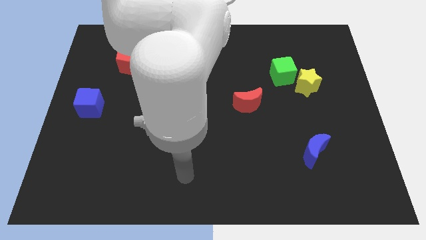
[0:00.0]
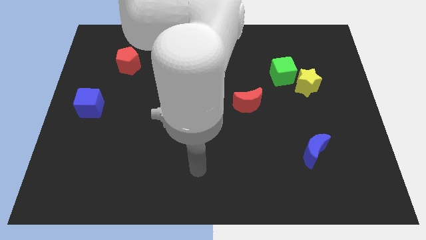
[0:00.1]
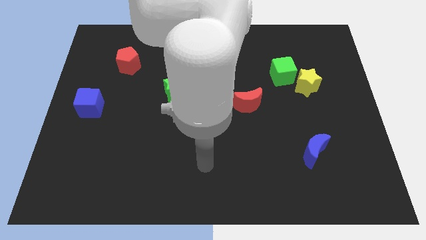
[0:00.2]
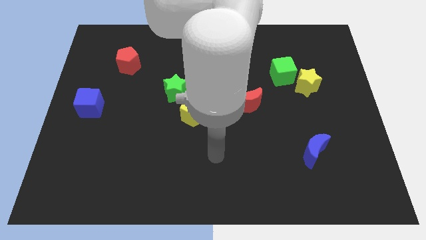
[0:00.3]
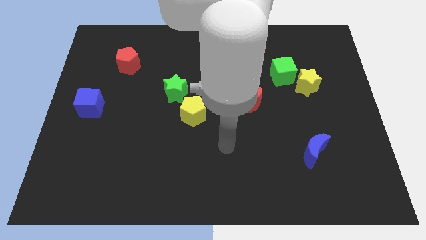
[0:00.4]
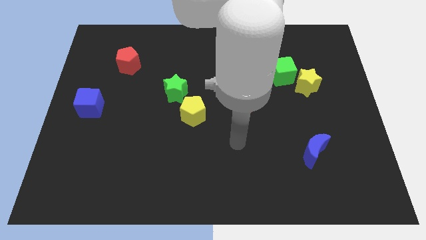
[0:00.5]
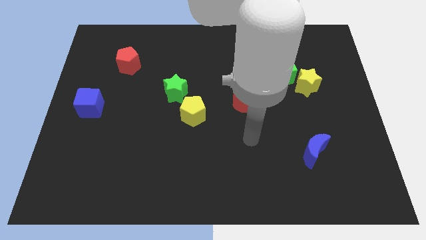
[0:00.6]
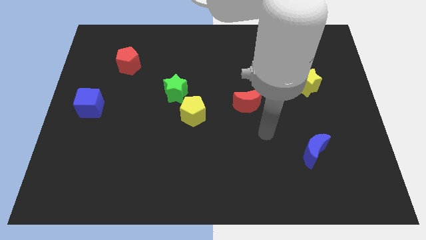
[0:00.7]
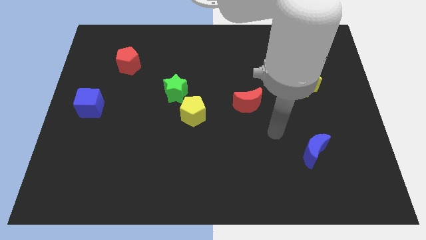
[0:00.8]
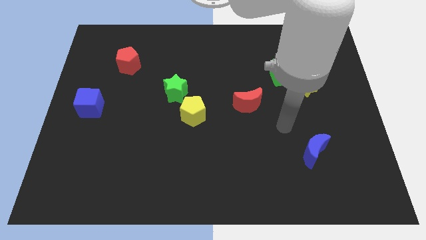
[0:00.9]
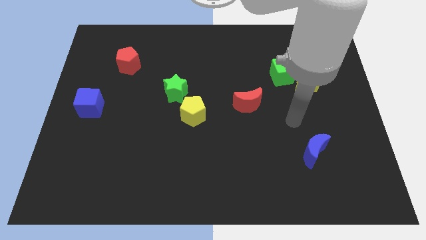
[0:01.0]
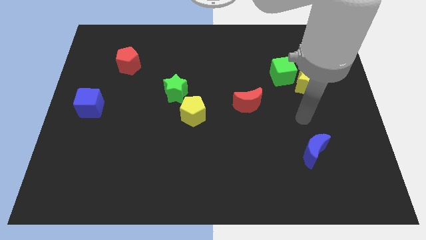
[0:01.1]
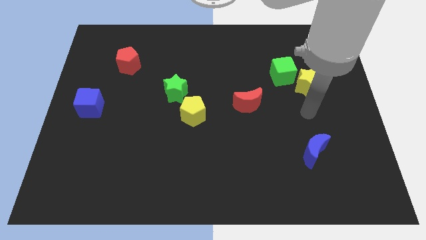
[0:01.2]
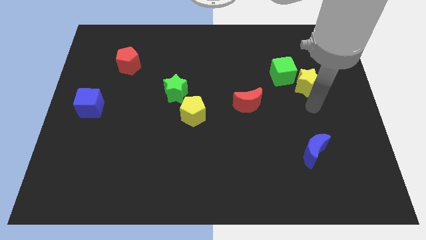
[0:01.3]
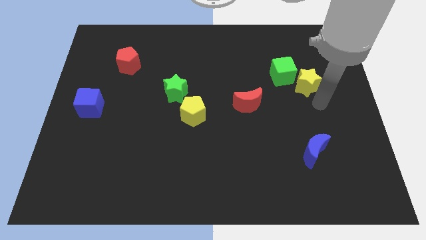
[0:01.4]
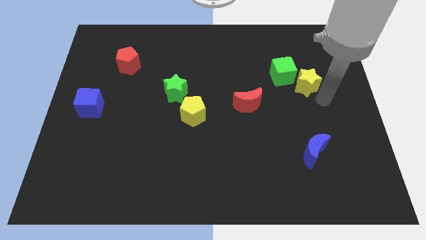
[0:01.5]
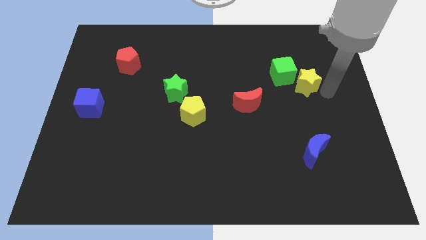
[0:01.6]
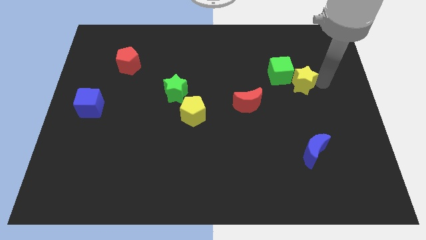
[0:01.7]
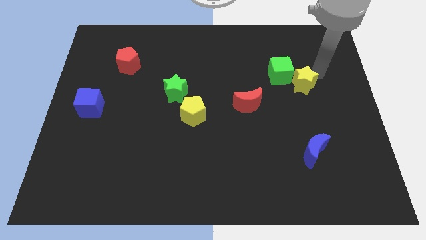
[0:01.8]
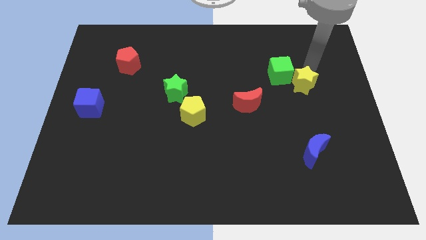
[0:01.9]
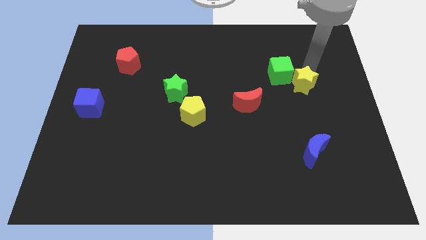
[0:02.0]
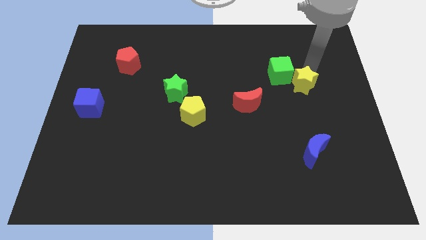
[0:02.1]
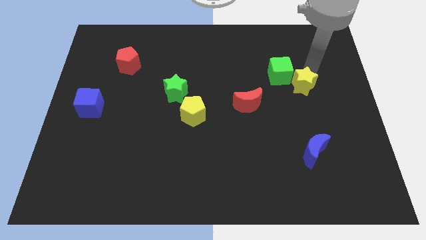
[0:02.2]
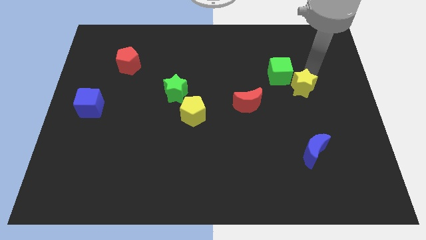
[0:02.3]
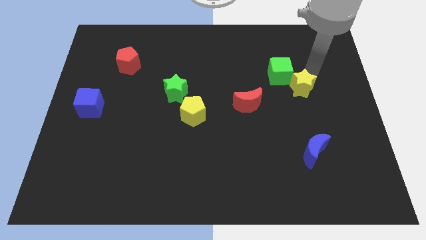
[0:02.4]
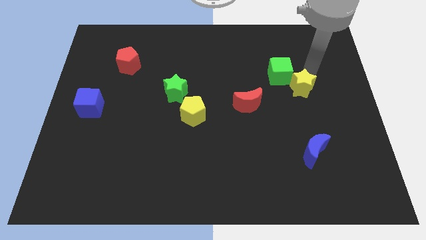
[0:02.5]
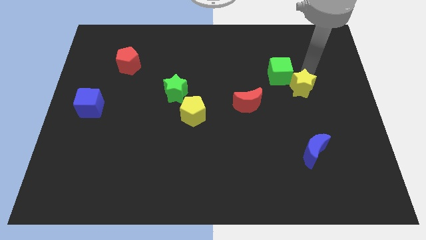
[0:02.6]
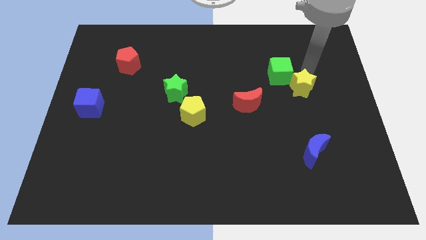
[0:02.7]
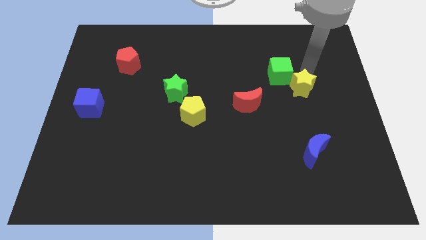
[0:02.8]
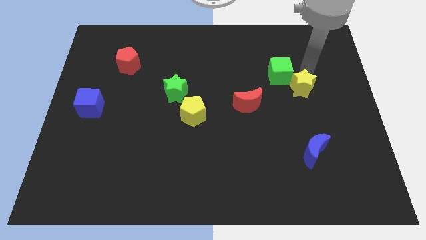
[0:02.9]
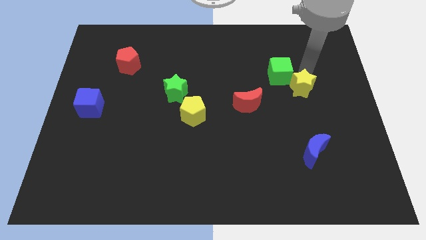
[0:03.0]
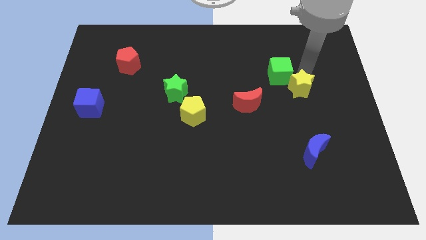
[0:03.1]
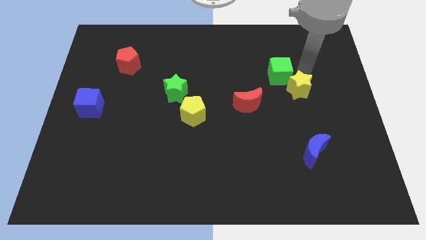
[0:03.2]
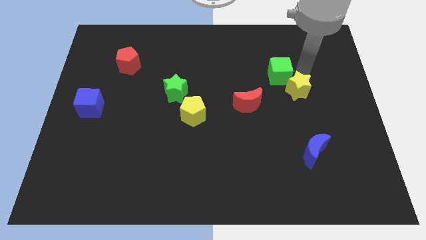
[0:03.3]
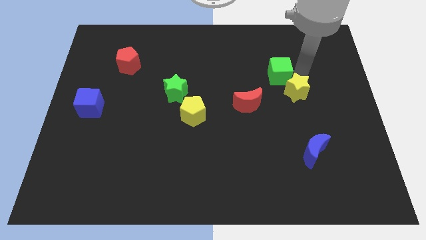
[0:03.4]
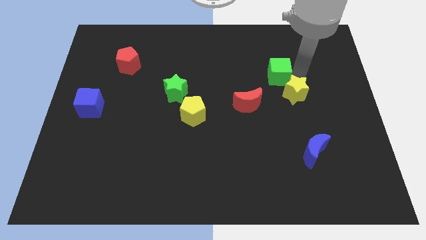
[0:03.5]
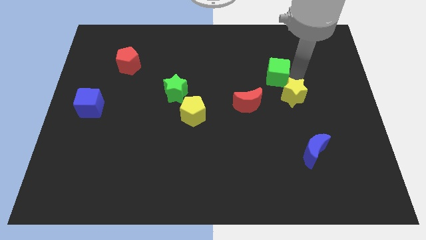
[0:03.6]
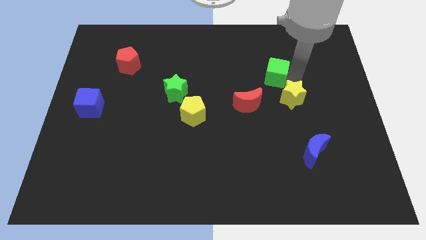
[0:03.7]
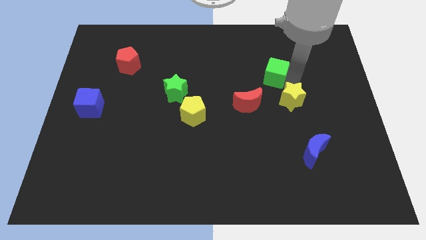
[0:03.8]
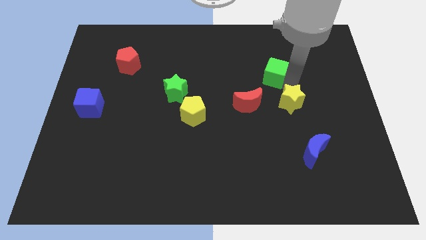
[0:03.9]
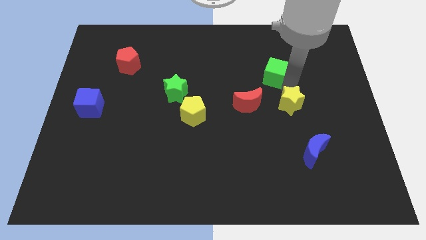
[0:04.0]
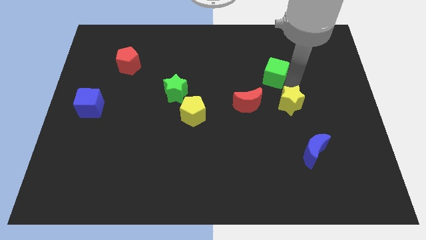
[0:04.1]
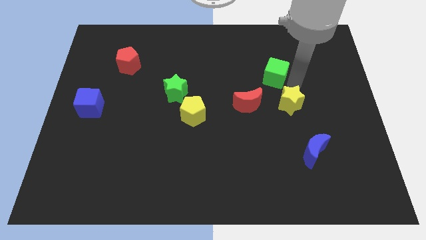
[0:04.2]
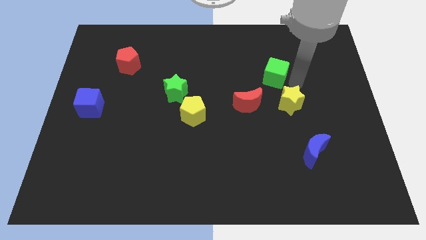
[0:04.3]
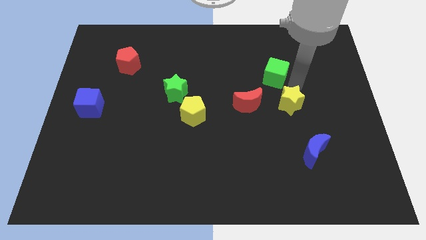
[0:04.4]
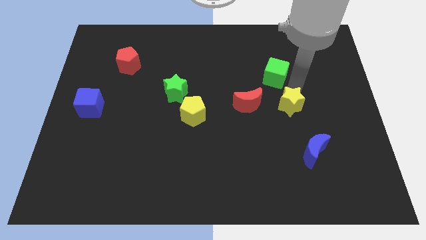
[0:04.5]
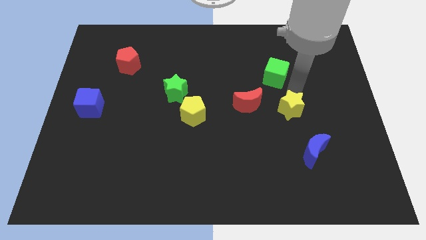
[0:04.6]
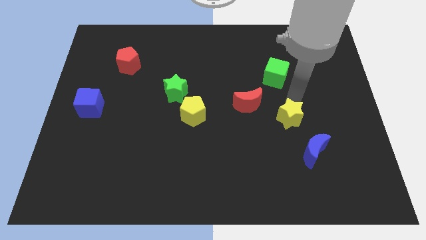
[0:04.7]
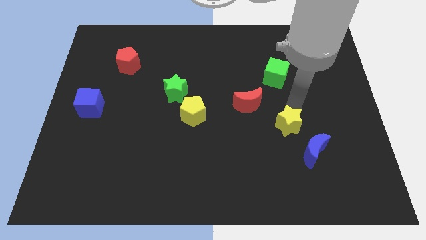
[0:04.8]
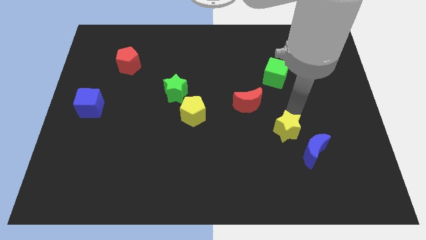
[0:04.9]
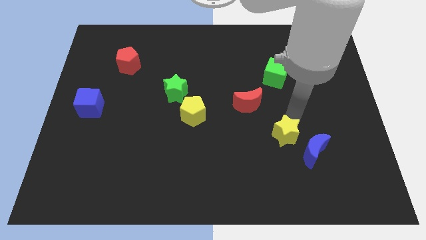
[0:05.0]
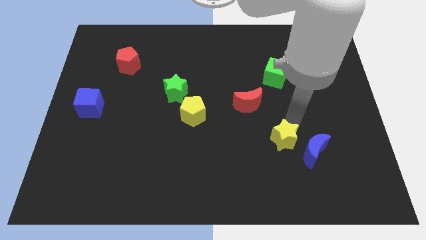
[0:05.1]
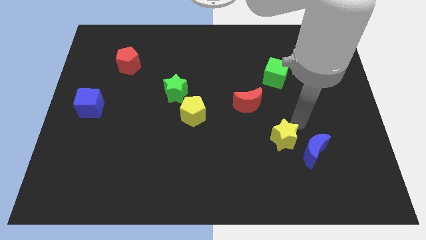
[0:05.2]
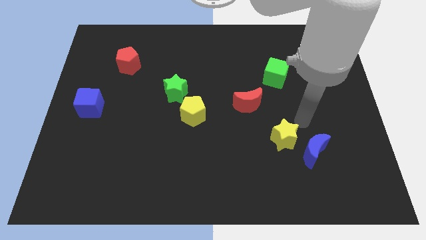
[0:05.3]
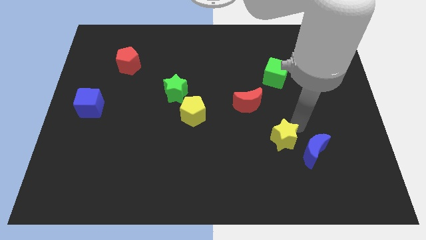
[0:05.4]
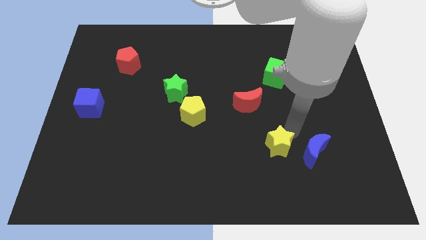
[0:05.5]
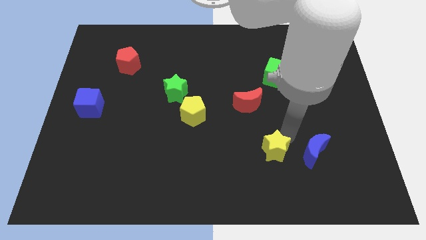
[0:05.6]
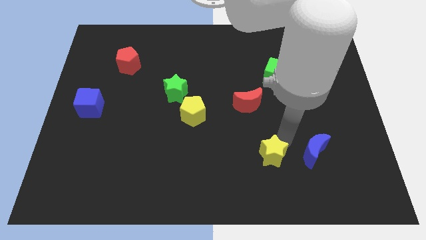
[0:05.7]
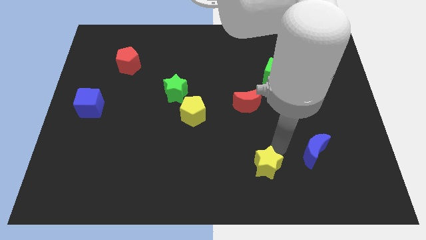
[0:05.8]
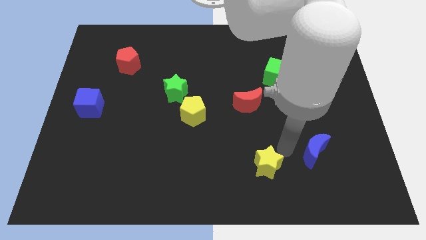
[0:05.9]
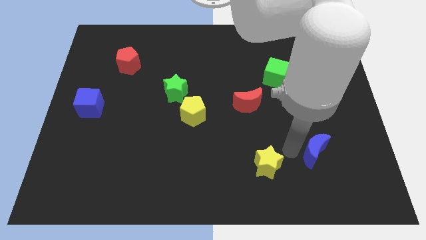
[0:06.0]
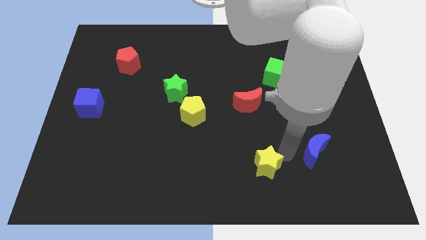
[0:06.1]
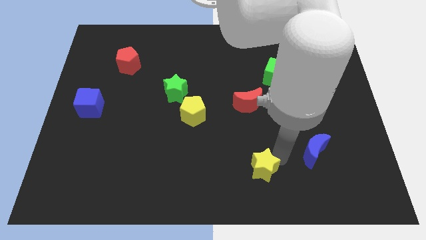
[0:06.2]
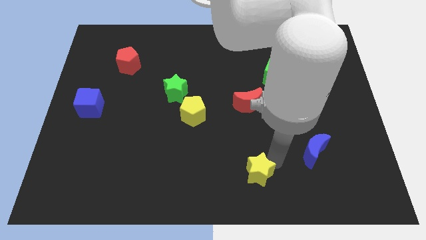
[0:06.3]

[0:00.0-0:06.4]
slide the yellow star to the bottom
